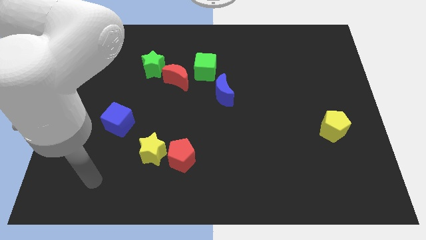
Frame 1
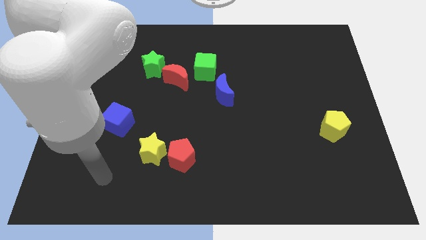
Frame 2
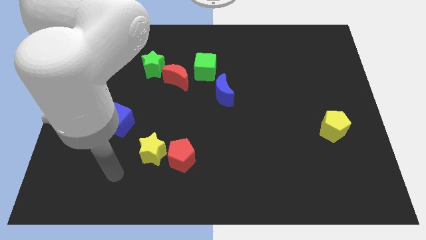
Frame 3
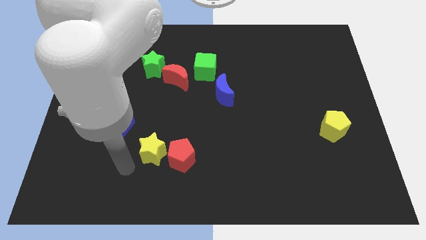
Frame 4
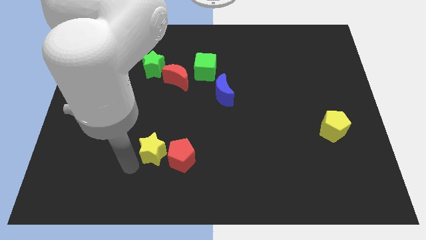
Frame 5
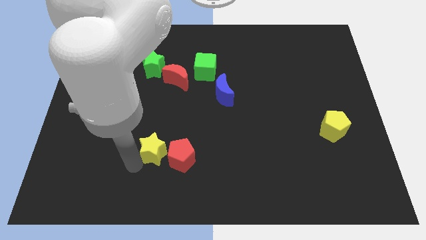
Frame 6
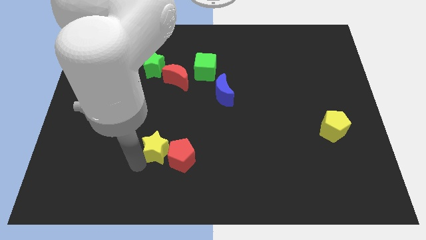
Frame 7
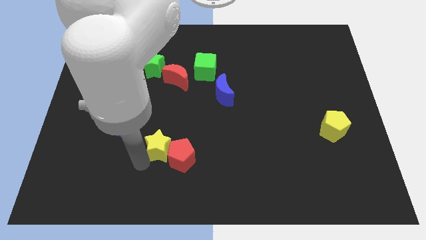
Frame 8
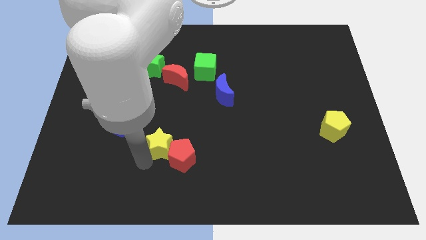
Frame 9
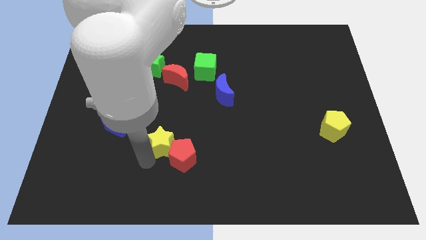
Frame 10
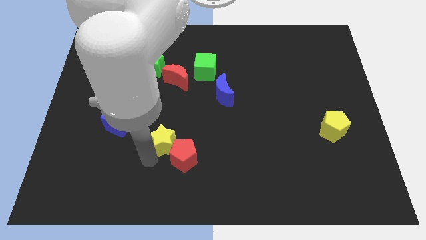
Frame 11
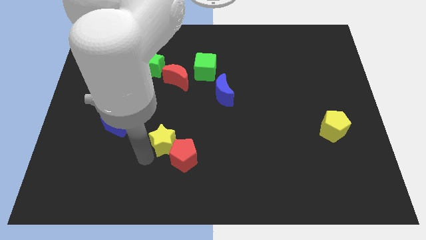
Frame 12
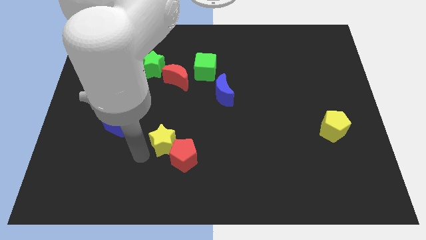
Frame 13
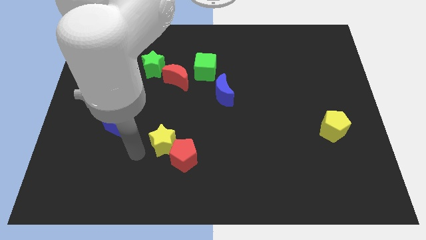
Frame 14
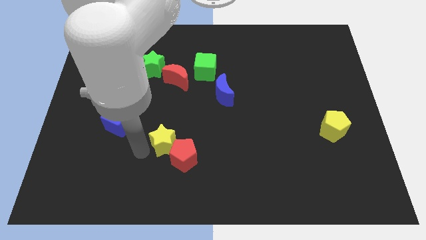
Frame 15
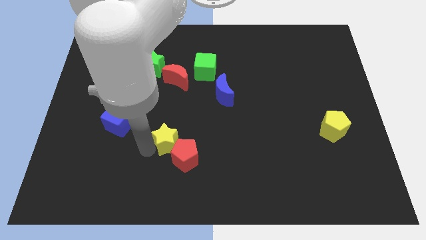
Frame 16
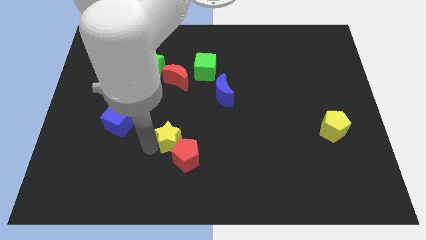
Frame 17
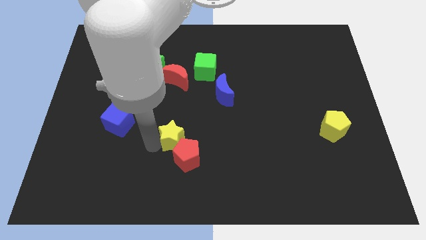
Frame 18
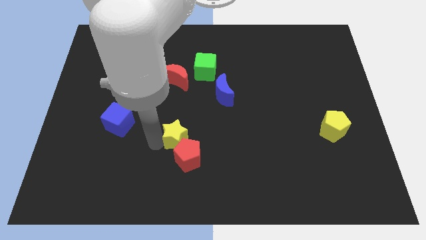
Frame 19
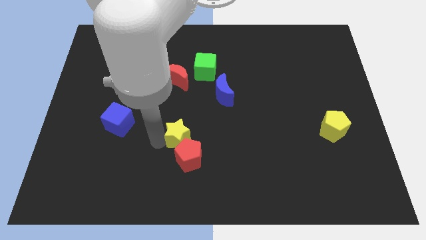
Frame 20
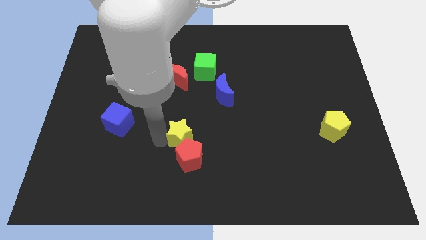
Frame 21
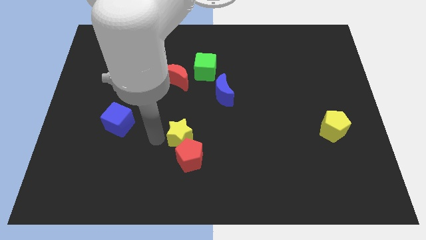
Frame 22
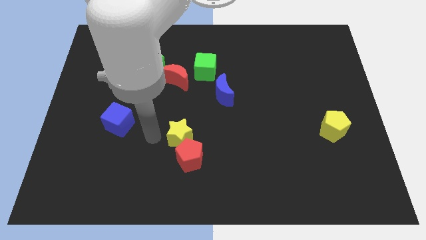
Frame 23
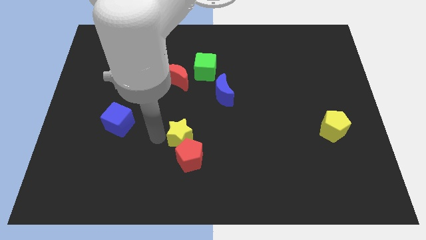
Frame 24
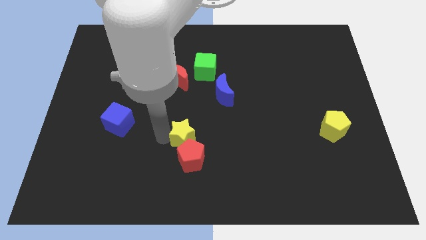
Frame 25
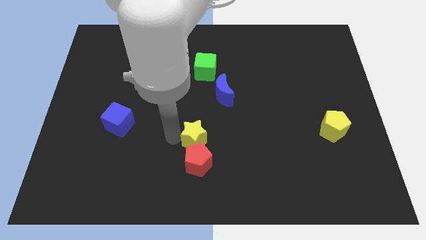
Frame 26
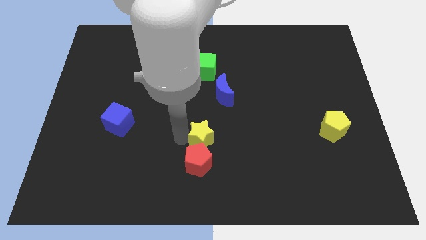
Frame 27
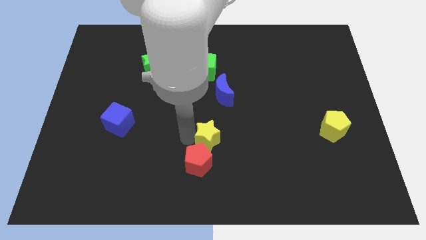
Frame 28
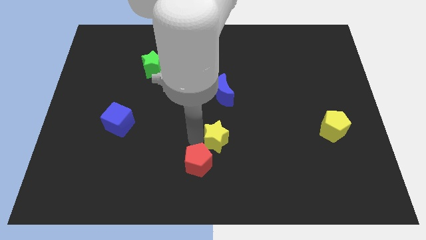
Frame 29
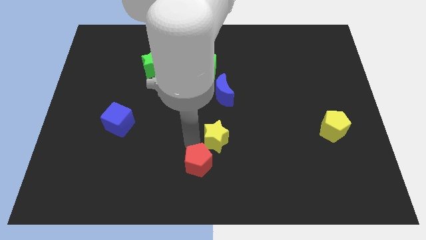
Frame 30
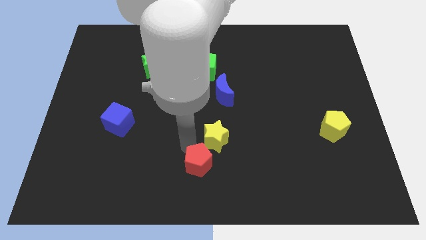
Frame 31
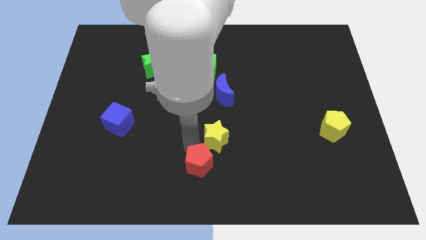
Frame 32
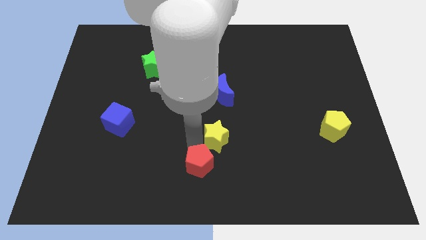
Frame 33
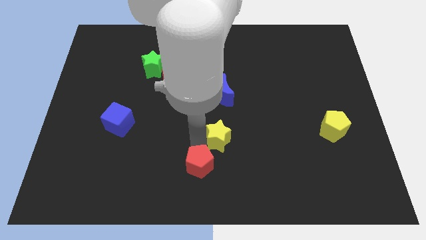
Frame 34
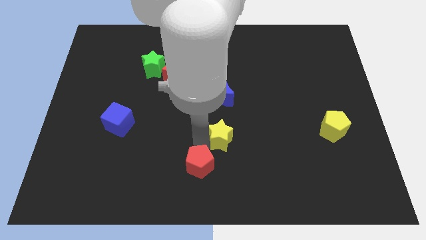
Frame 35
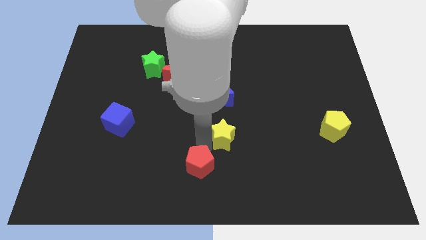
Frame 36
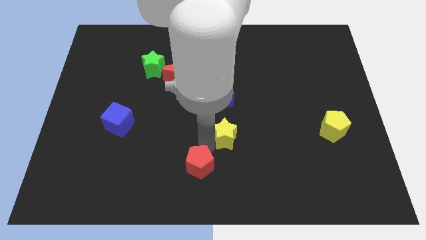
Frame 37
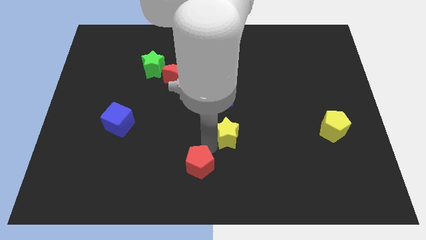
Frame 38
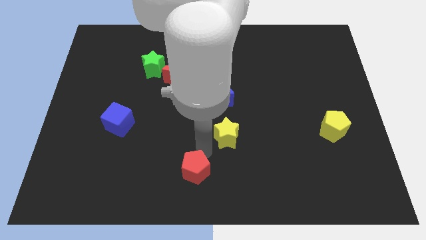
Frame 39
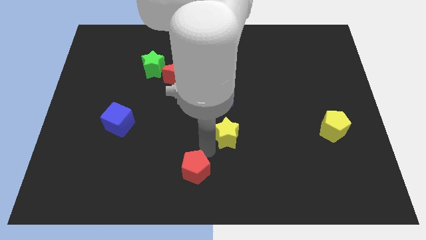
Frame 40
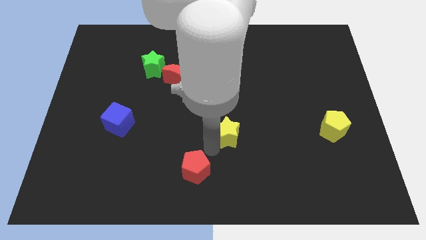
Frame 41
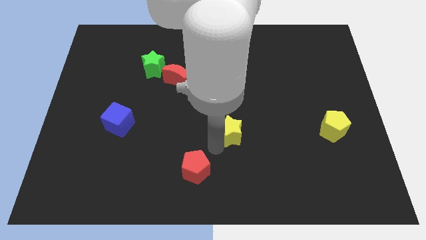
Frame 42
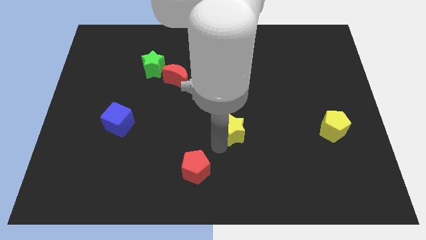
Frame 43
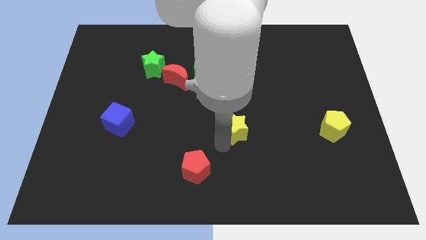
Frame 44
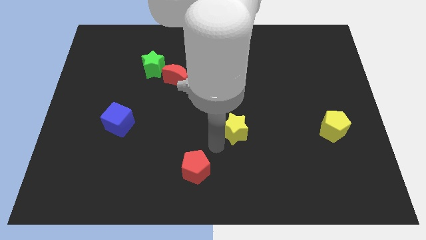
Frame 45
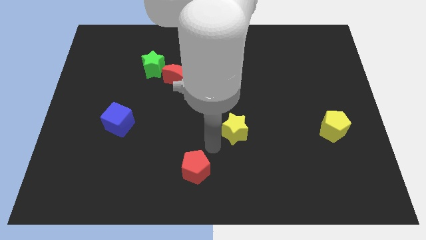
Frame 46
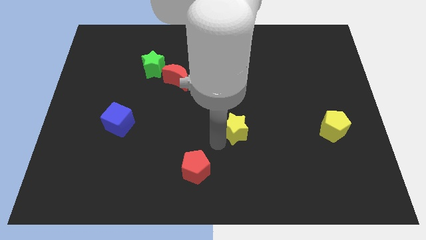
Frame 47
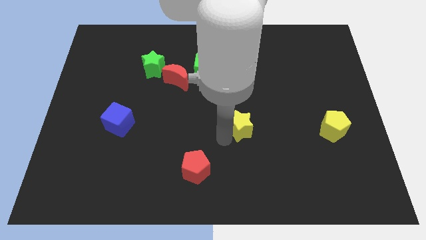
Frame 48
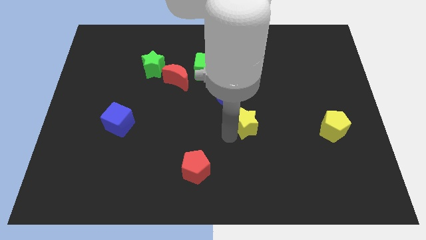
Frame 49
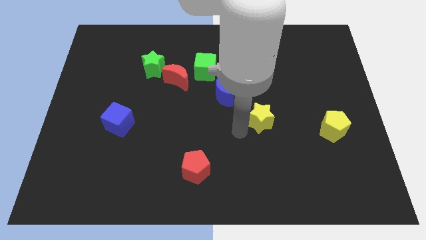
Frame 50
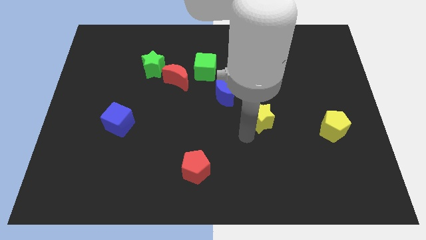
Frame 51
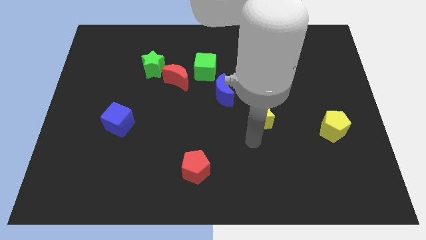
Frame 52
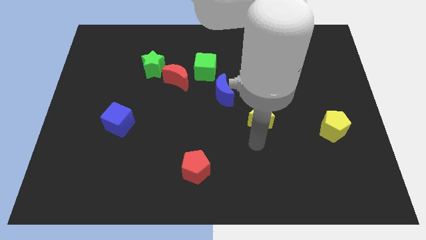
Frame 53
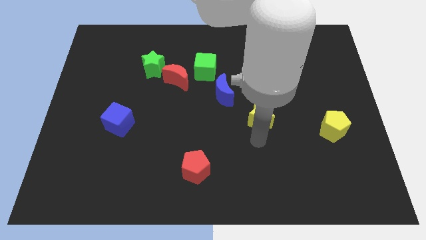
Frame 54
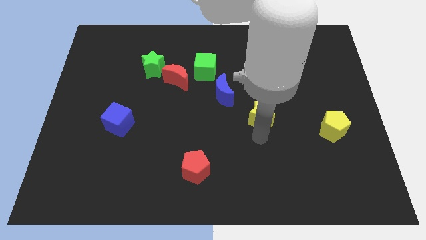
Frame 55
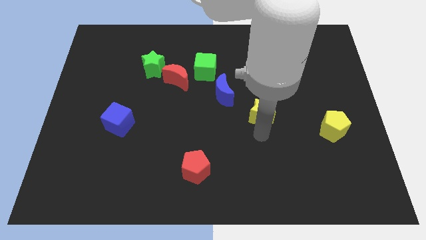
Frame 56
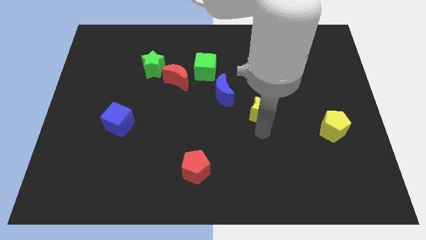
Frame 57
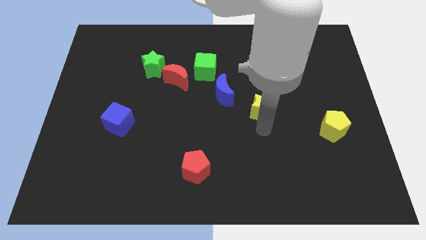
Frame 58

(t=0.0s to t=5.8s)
slide the yellow star just right of the blue moon

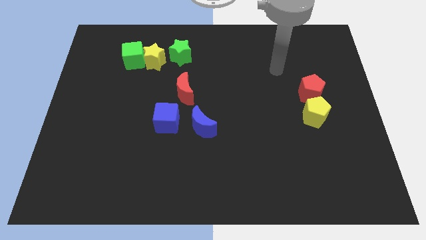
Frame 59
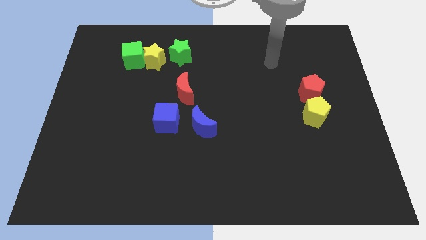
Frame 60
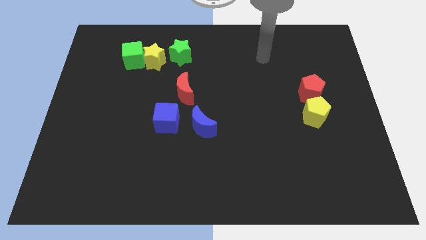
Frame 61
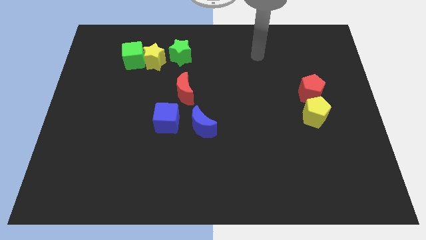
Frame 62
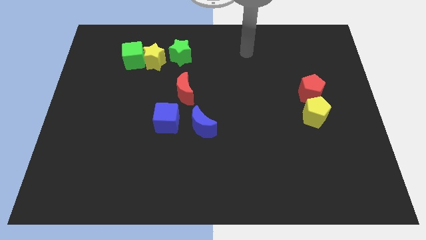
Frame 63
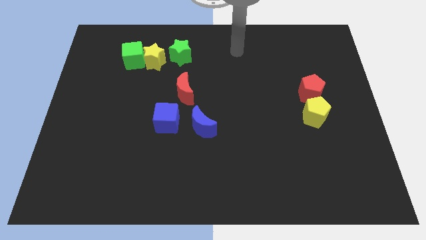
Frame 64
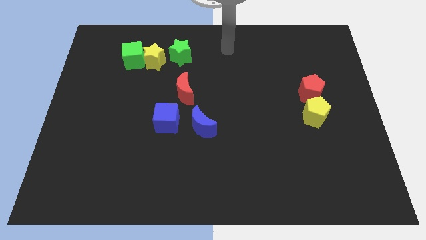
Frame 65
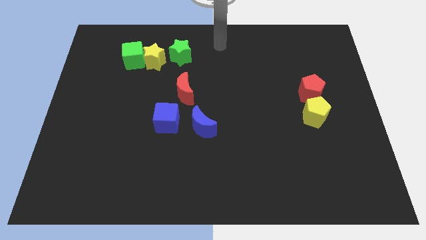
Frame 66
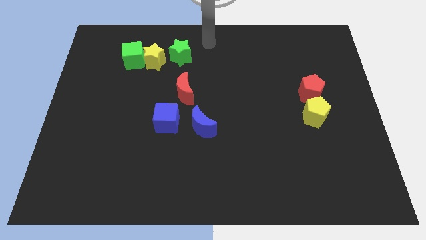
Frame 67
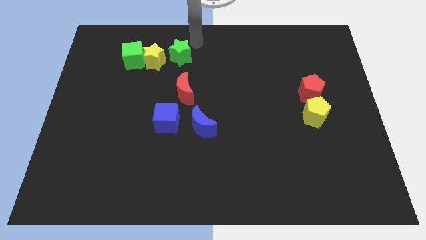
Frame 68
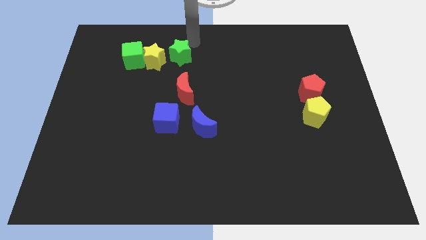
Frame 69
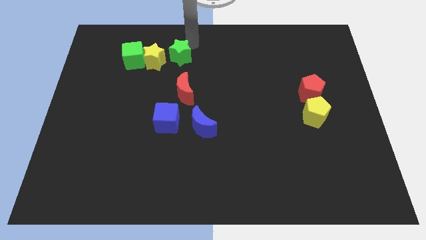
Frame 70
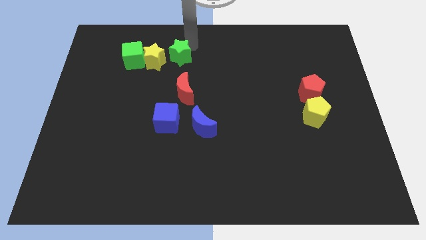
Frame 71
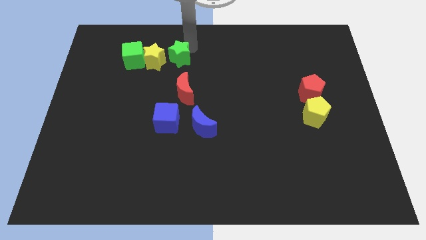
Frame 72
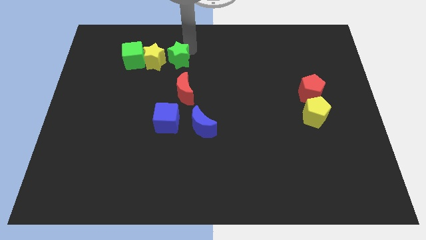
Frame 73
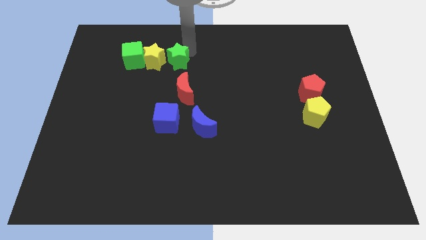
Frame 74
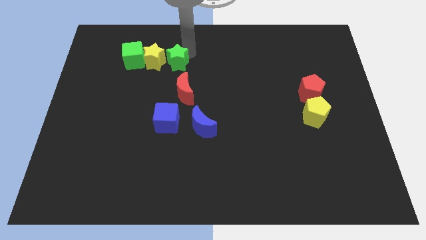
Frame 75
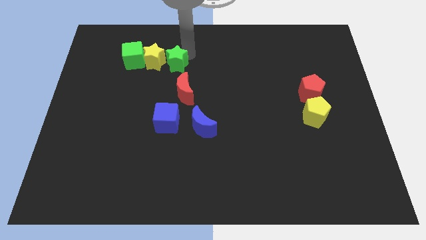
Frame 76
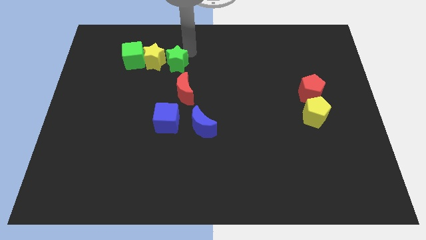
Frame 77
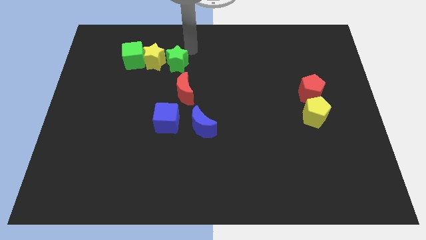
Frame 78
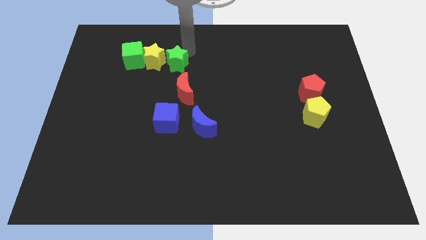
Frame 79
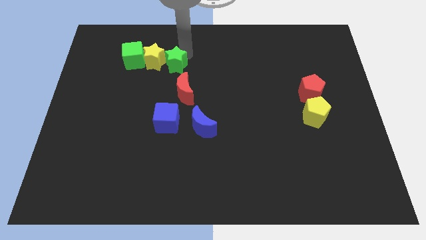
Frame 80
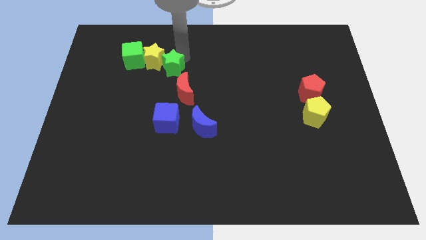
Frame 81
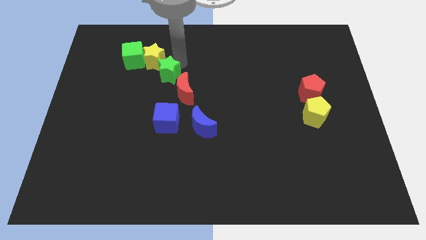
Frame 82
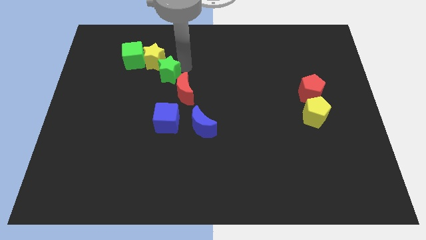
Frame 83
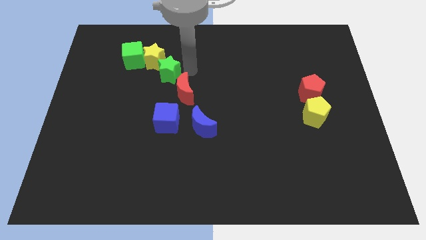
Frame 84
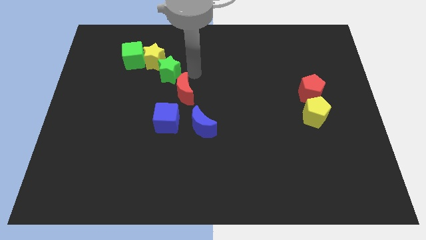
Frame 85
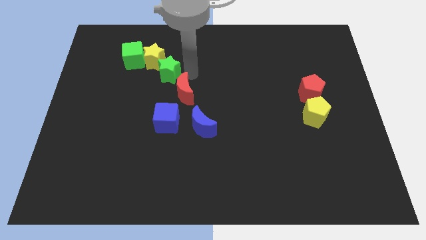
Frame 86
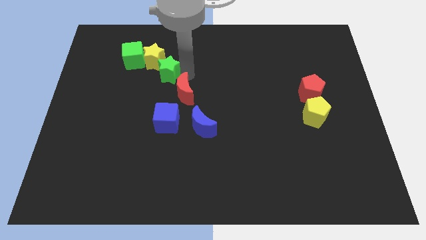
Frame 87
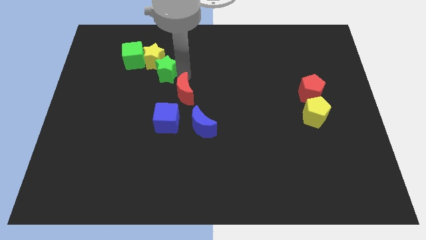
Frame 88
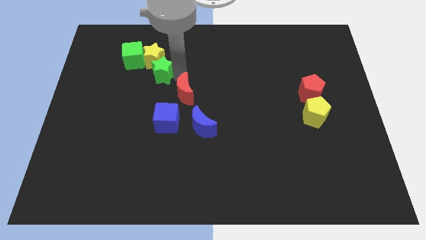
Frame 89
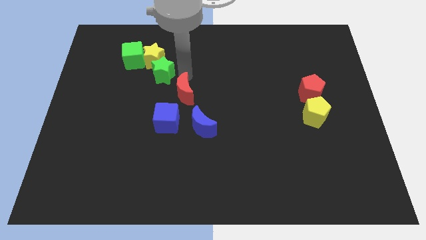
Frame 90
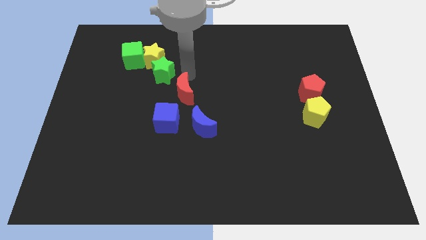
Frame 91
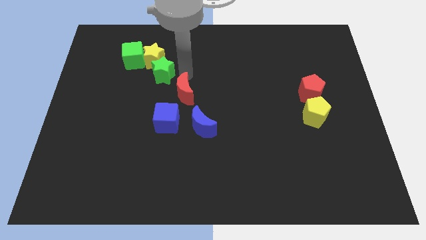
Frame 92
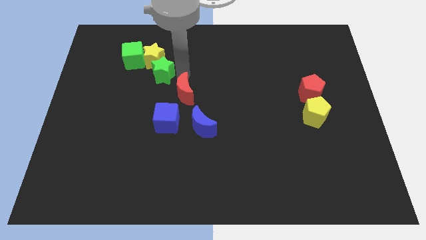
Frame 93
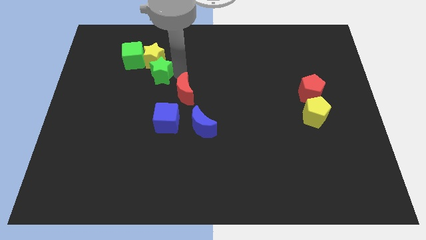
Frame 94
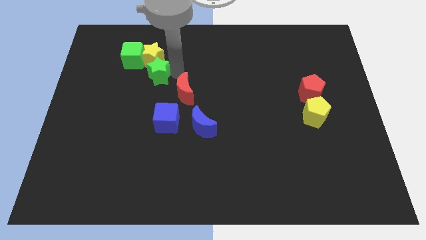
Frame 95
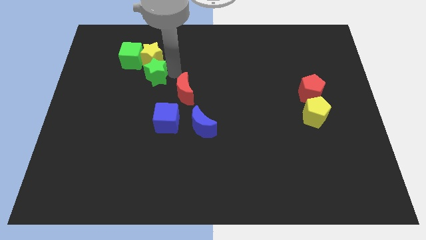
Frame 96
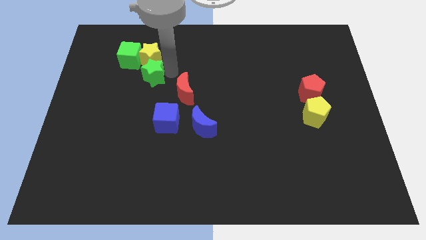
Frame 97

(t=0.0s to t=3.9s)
put the green star diagonally down and to the left of the yellow star
